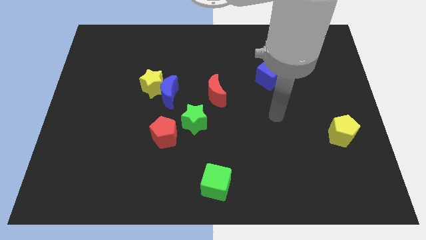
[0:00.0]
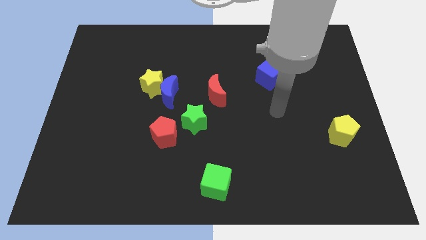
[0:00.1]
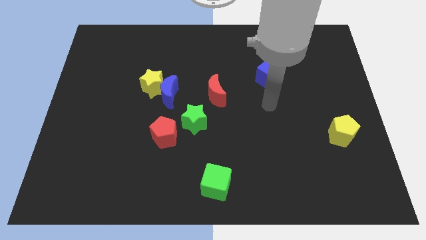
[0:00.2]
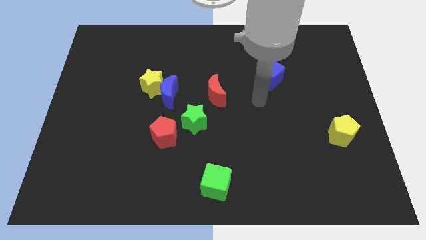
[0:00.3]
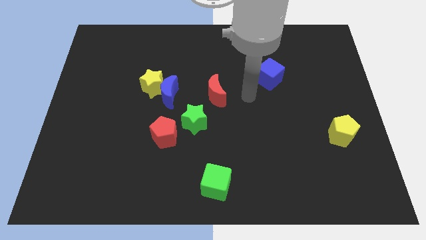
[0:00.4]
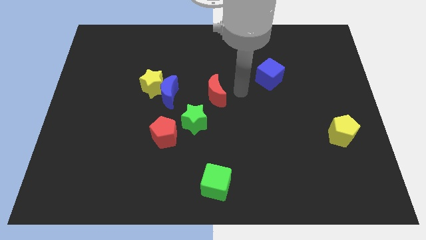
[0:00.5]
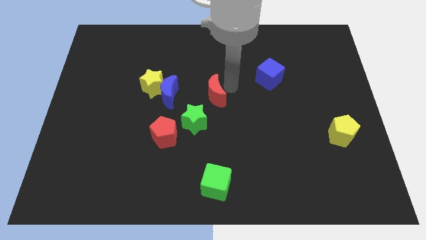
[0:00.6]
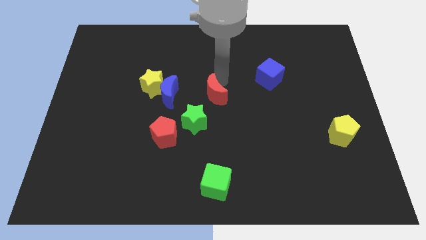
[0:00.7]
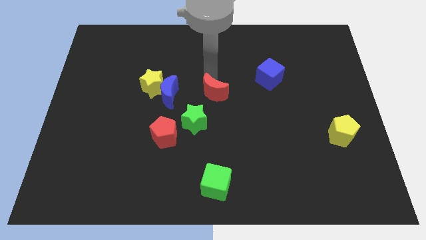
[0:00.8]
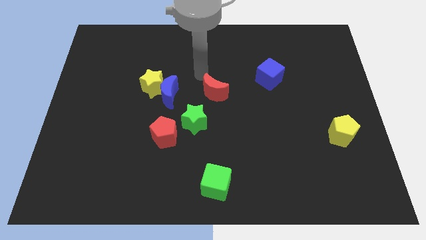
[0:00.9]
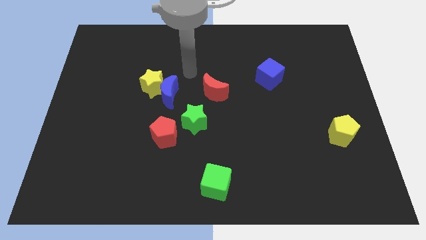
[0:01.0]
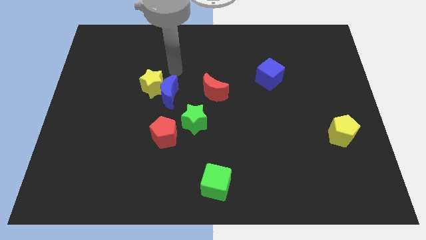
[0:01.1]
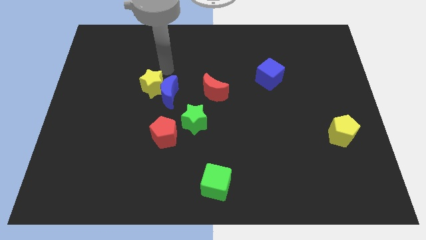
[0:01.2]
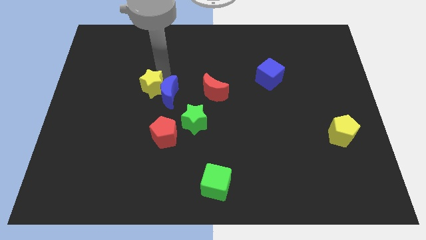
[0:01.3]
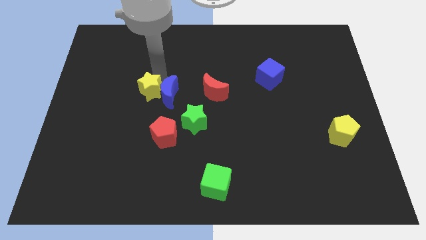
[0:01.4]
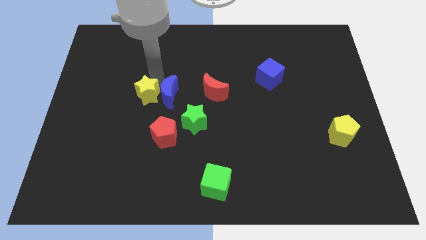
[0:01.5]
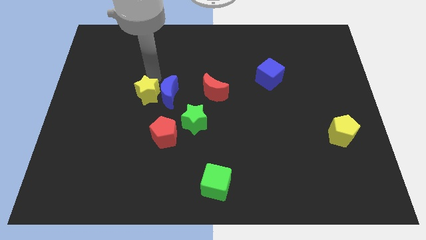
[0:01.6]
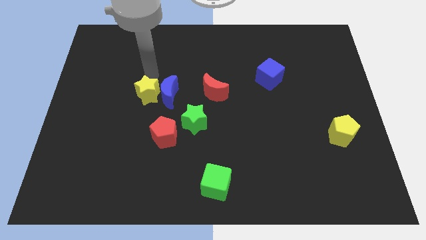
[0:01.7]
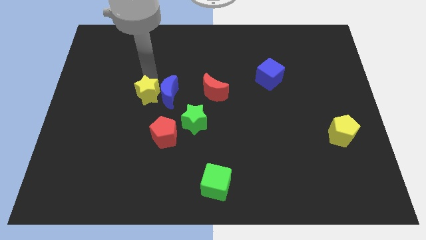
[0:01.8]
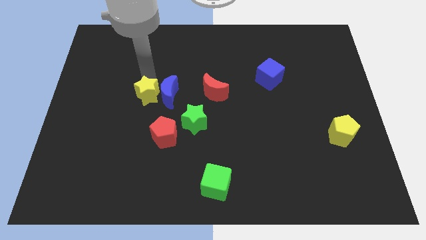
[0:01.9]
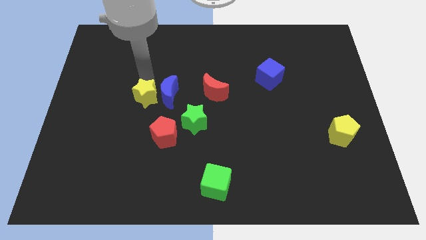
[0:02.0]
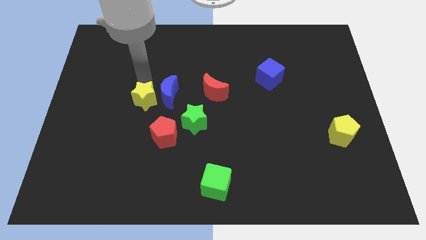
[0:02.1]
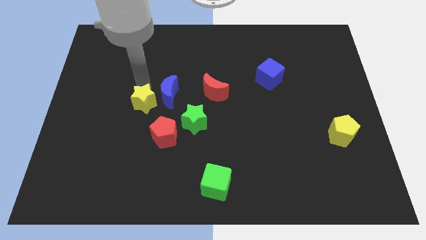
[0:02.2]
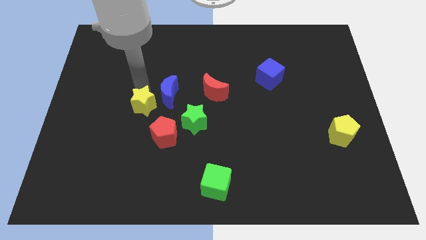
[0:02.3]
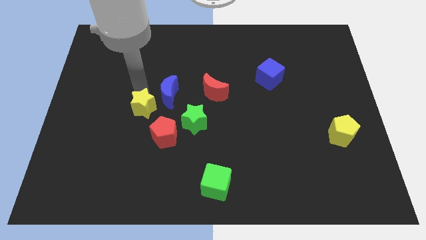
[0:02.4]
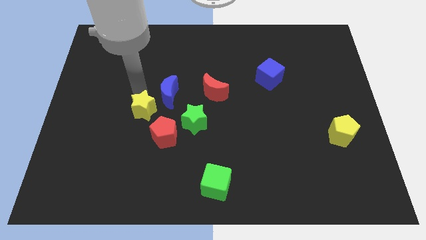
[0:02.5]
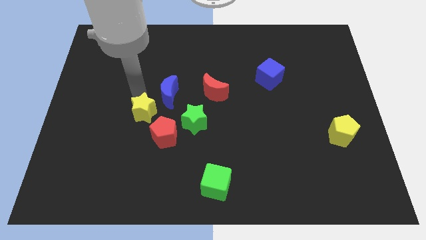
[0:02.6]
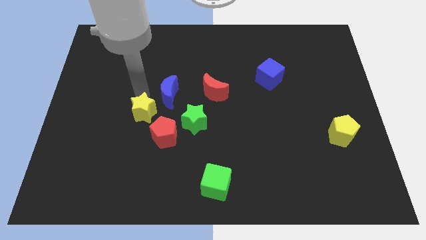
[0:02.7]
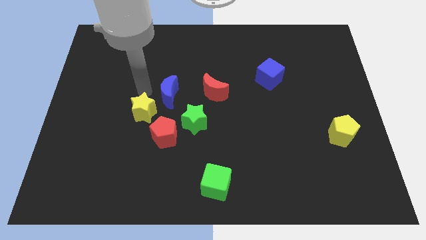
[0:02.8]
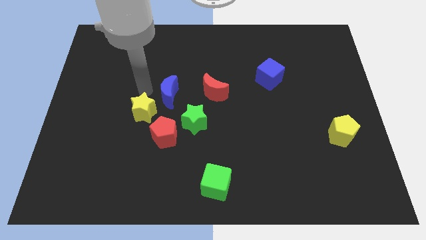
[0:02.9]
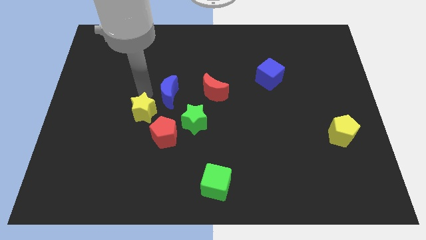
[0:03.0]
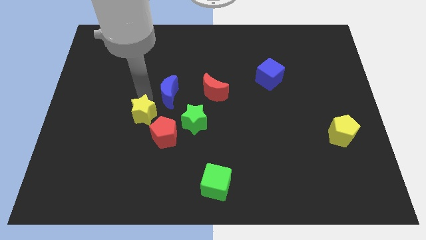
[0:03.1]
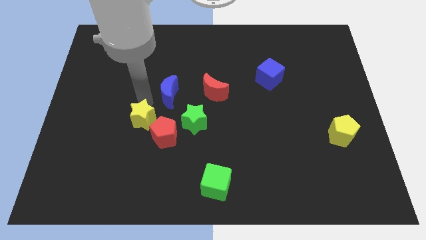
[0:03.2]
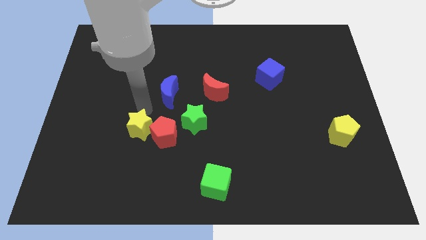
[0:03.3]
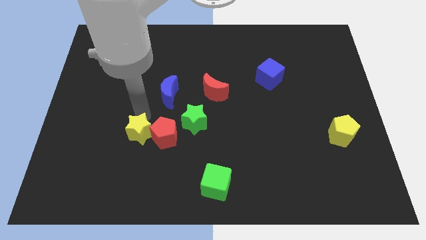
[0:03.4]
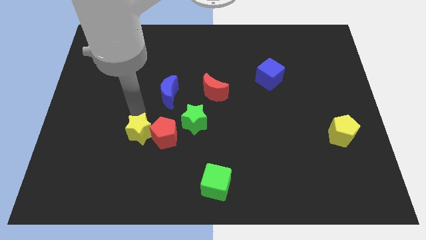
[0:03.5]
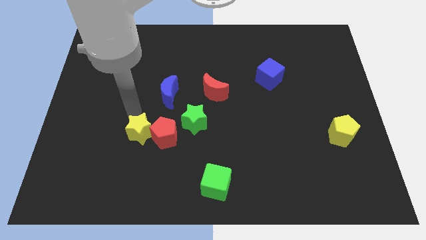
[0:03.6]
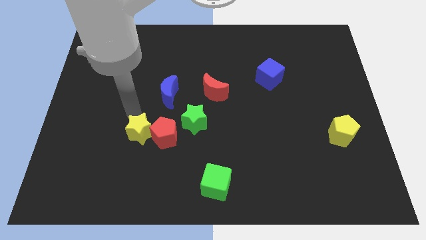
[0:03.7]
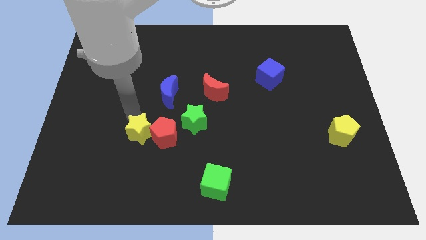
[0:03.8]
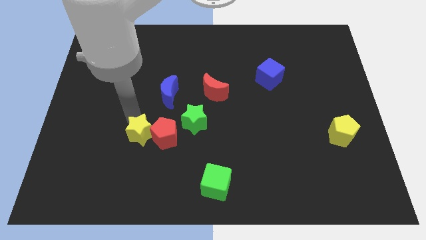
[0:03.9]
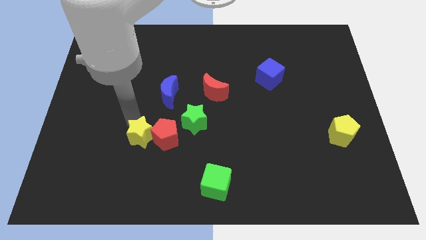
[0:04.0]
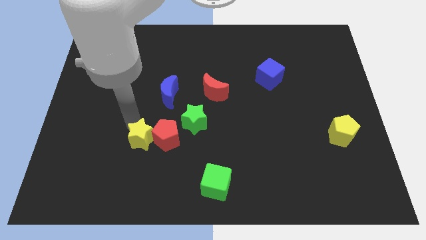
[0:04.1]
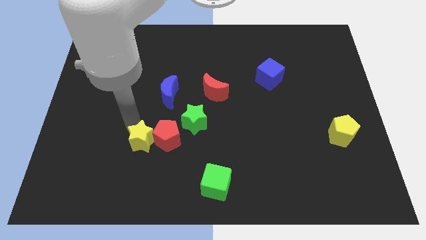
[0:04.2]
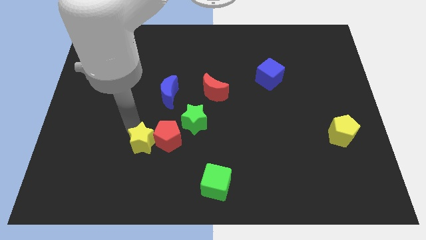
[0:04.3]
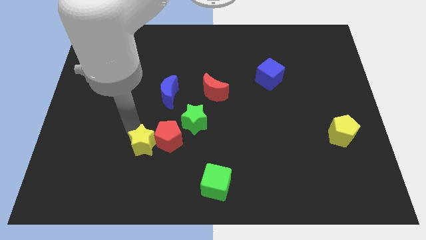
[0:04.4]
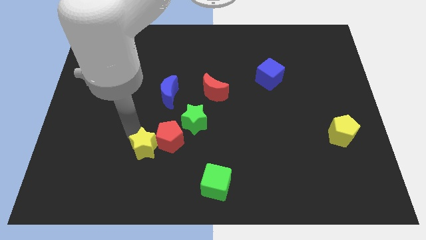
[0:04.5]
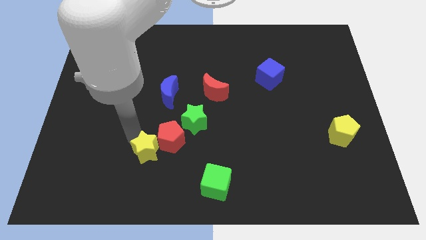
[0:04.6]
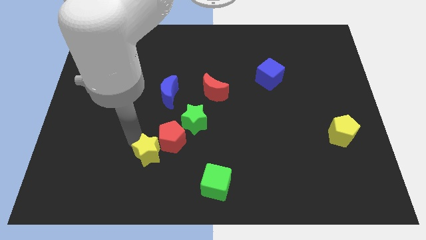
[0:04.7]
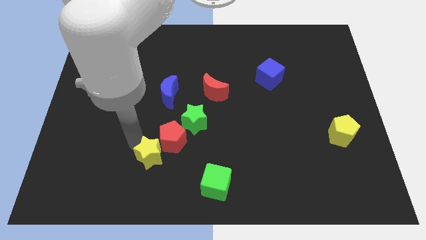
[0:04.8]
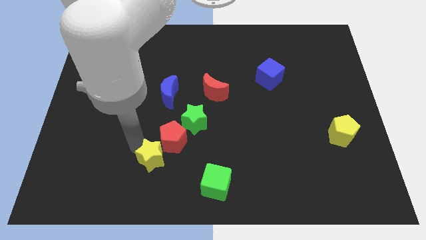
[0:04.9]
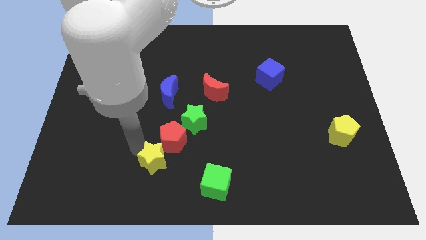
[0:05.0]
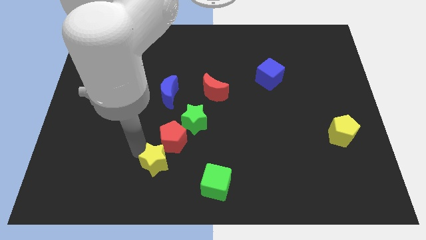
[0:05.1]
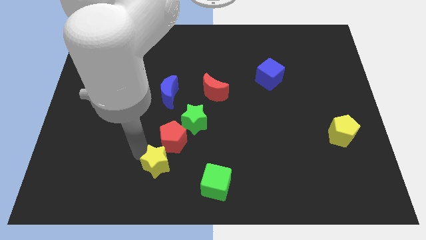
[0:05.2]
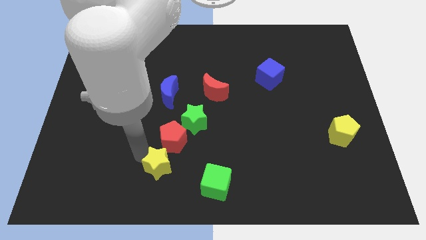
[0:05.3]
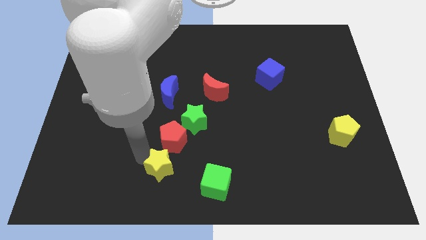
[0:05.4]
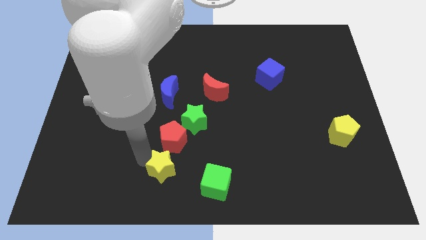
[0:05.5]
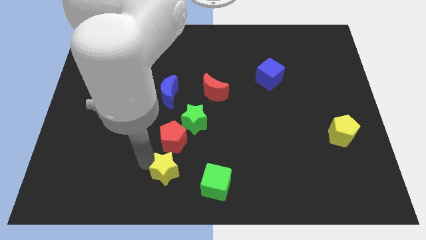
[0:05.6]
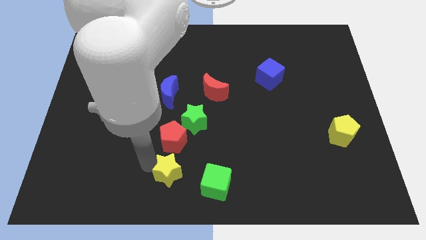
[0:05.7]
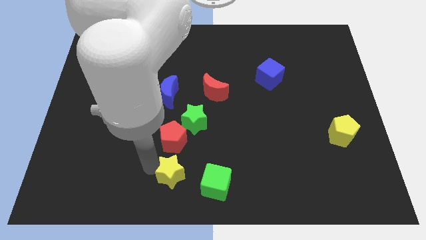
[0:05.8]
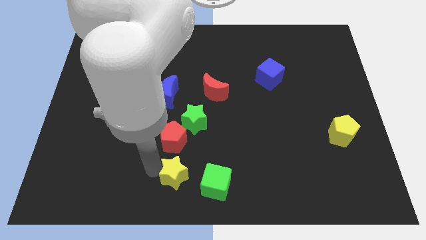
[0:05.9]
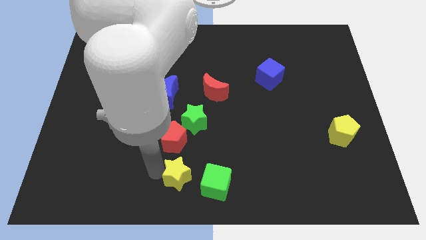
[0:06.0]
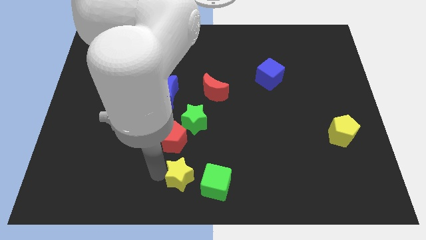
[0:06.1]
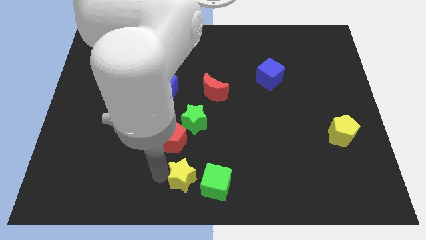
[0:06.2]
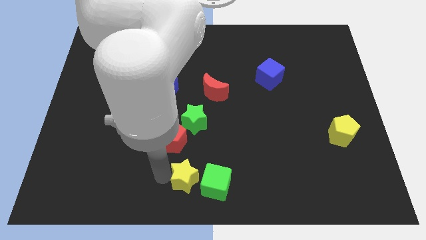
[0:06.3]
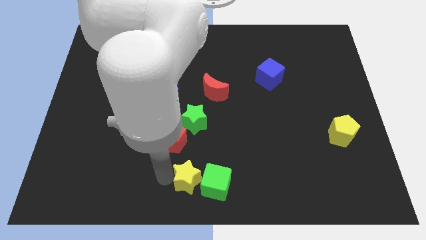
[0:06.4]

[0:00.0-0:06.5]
put the yellow star to the green cube
